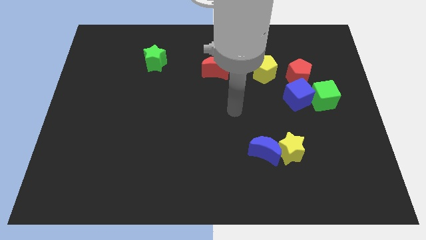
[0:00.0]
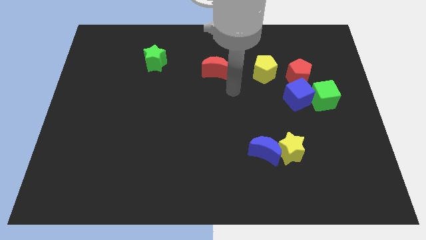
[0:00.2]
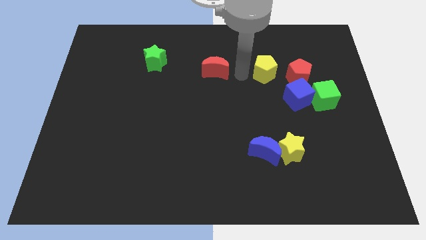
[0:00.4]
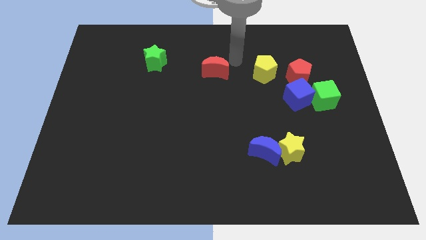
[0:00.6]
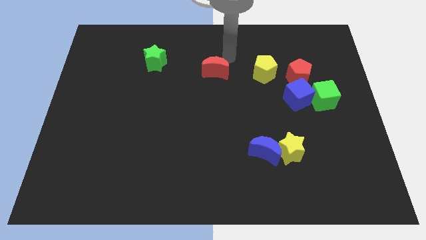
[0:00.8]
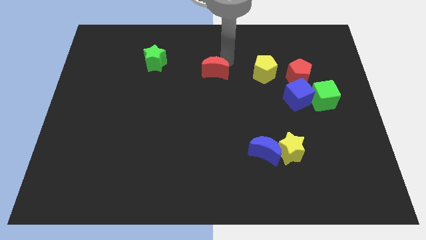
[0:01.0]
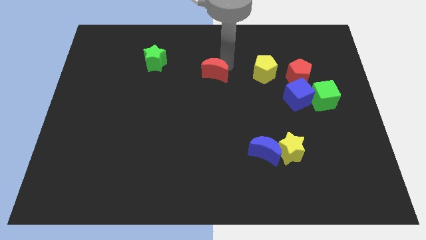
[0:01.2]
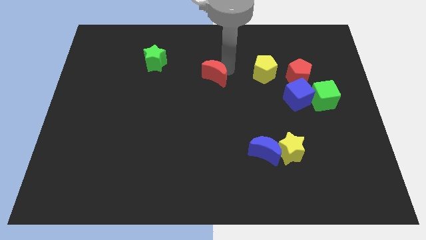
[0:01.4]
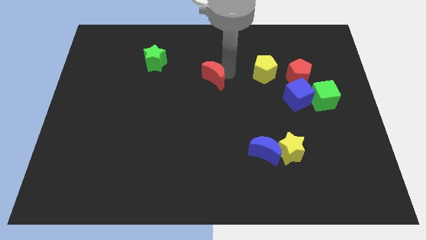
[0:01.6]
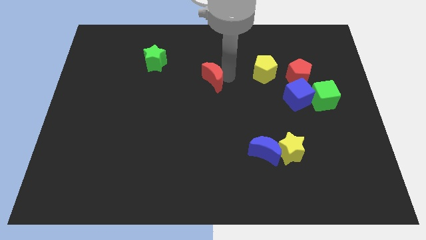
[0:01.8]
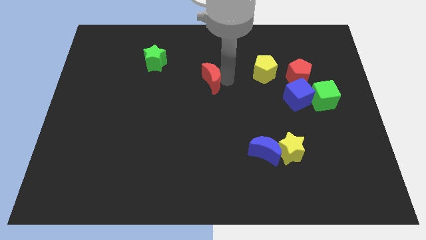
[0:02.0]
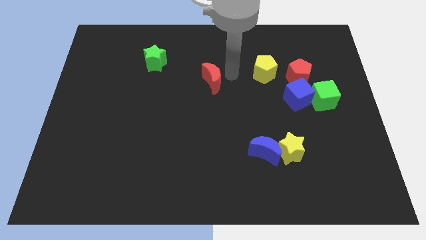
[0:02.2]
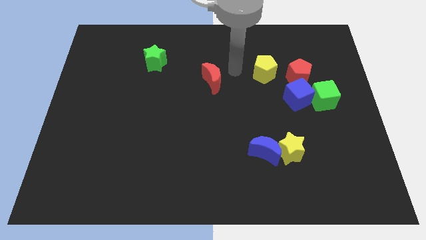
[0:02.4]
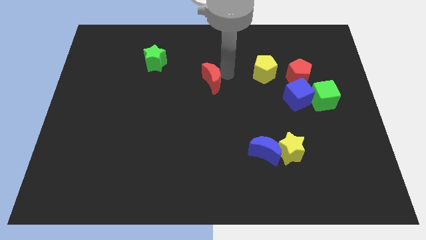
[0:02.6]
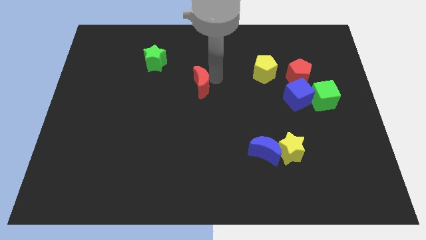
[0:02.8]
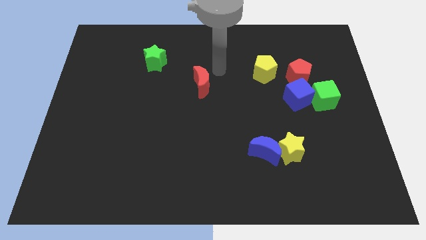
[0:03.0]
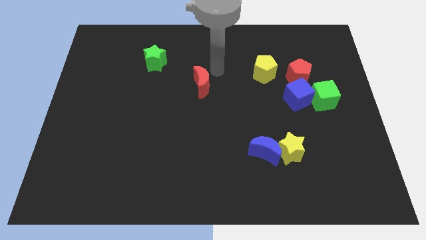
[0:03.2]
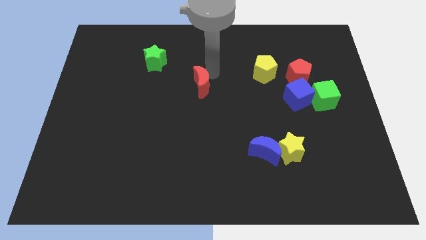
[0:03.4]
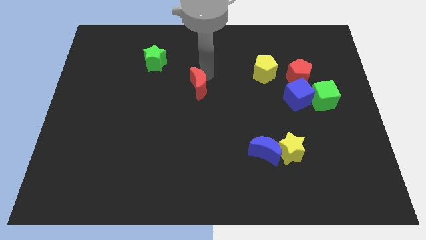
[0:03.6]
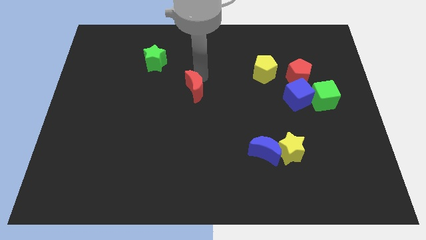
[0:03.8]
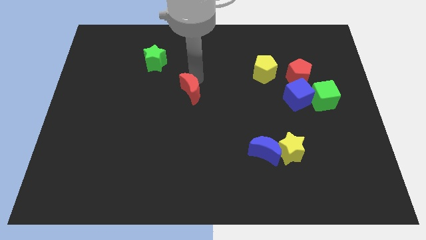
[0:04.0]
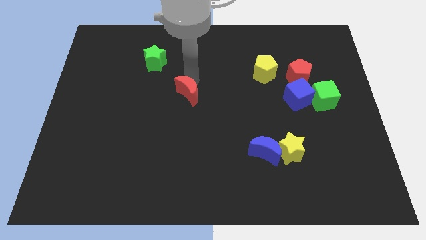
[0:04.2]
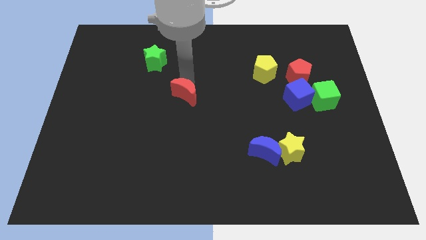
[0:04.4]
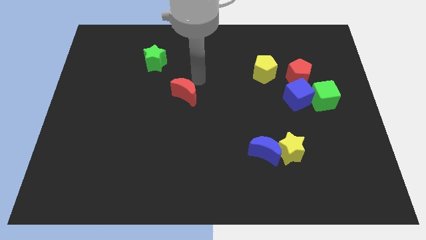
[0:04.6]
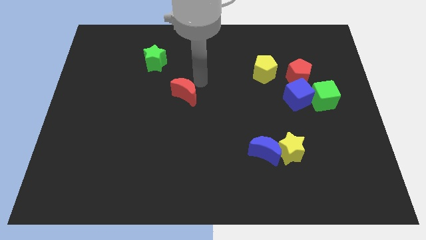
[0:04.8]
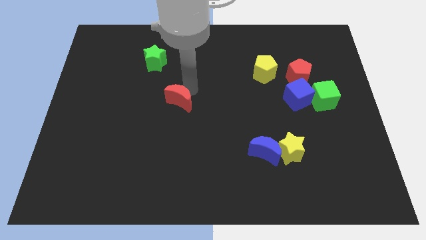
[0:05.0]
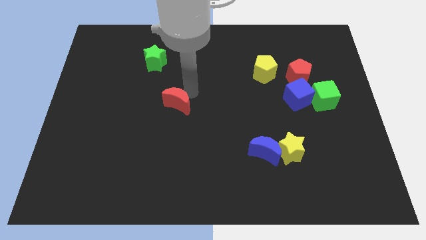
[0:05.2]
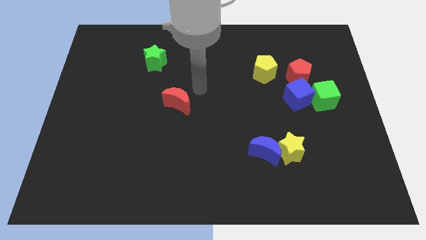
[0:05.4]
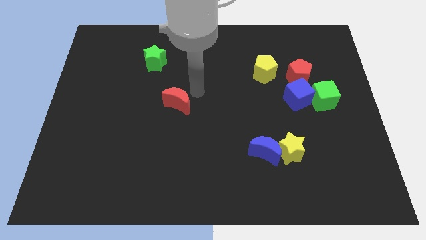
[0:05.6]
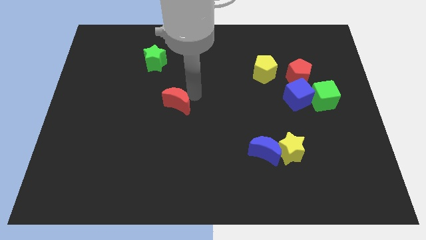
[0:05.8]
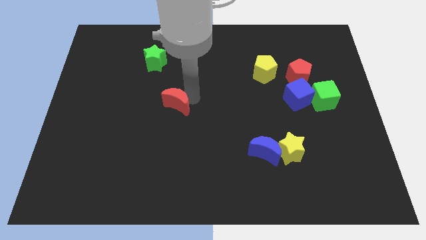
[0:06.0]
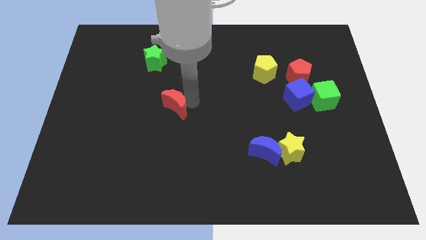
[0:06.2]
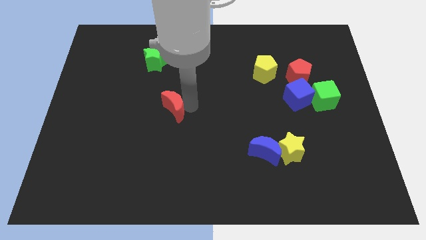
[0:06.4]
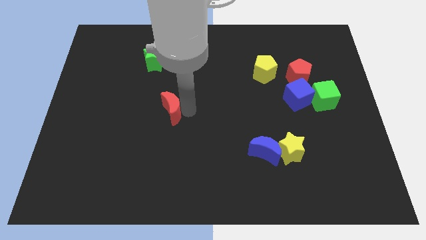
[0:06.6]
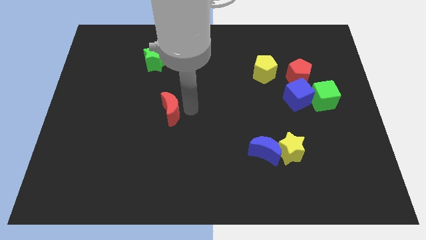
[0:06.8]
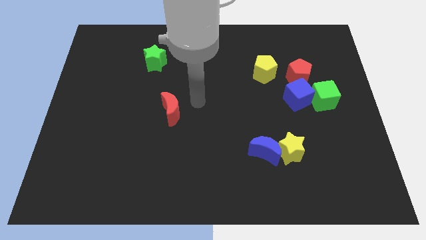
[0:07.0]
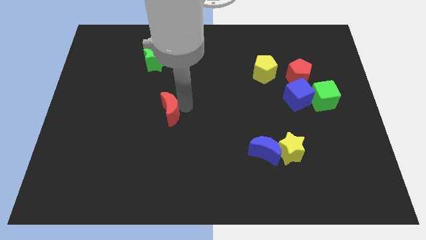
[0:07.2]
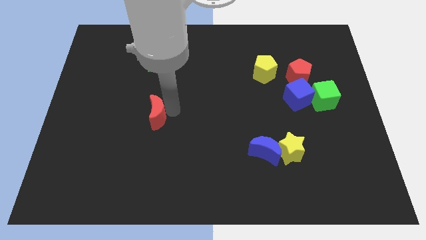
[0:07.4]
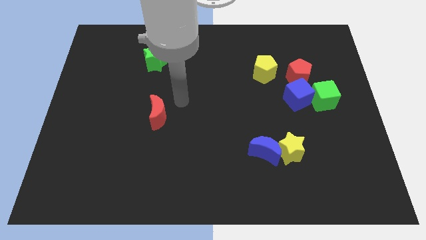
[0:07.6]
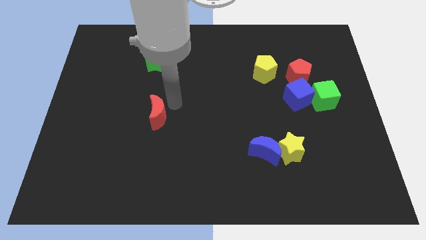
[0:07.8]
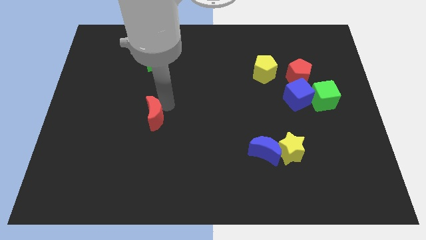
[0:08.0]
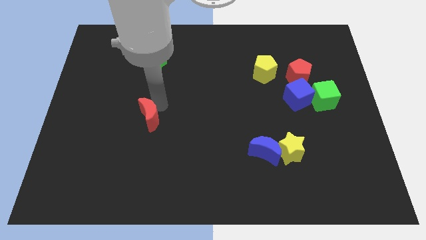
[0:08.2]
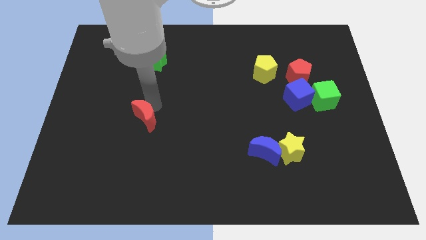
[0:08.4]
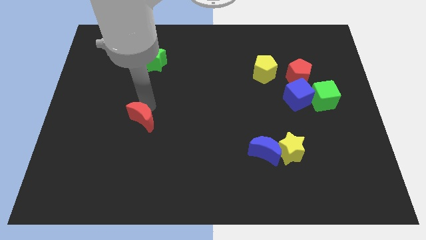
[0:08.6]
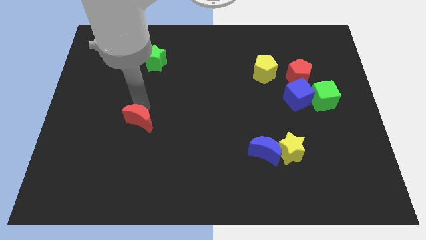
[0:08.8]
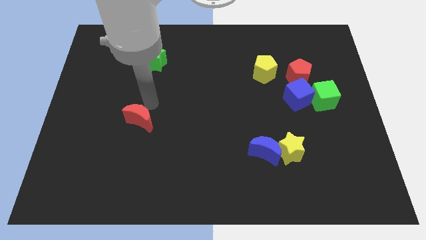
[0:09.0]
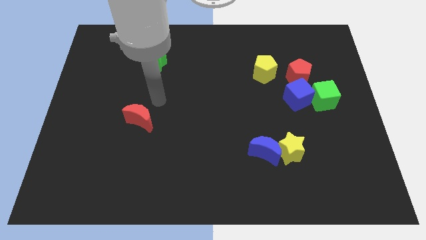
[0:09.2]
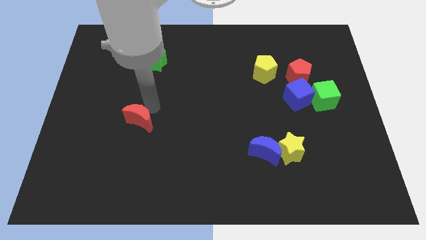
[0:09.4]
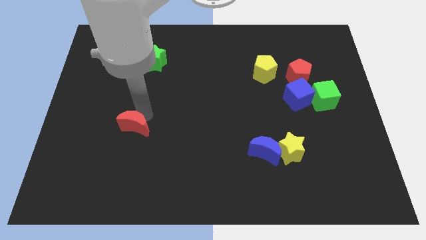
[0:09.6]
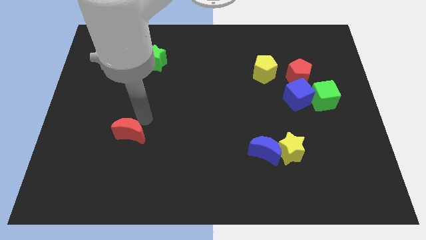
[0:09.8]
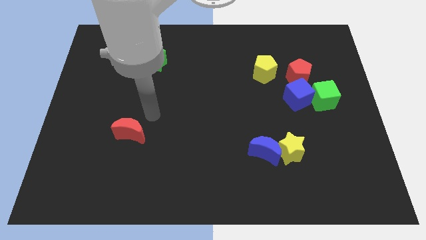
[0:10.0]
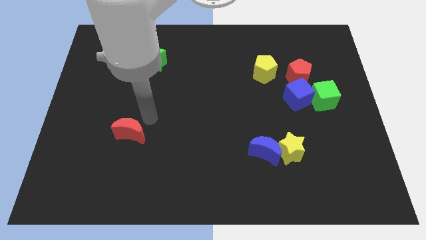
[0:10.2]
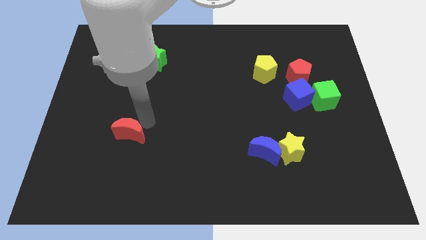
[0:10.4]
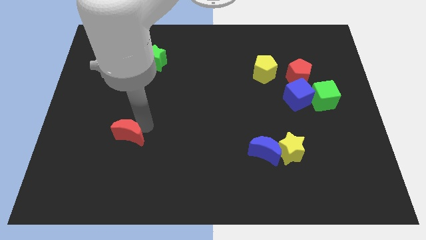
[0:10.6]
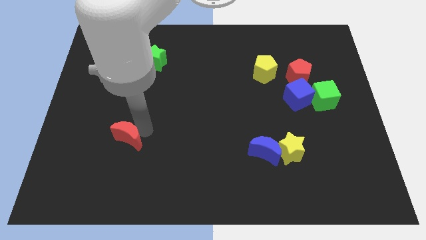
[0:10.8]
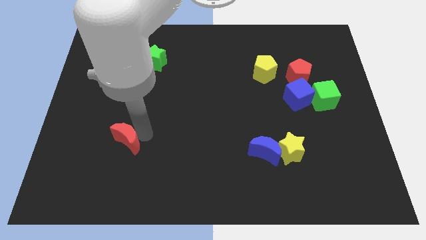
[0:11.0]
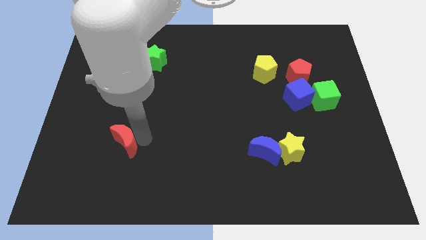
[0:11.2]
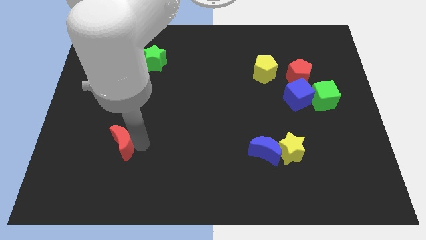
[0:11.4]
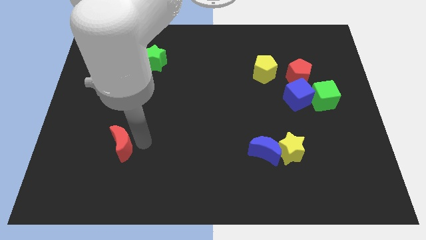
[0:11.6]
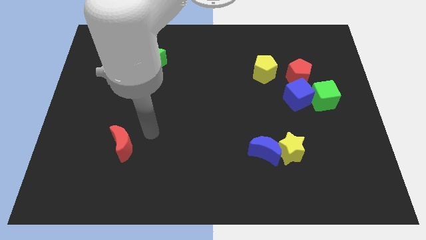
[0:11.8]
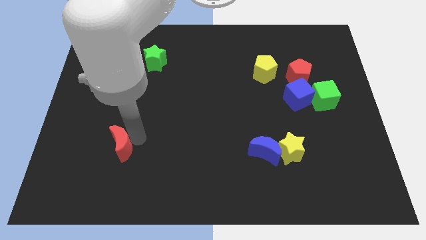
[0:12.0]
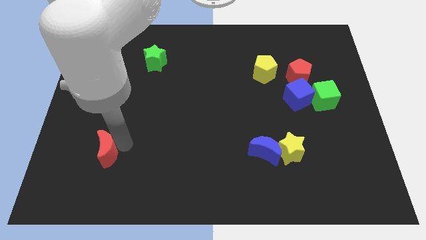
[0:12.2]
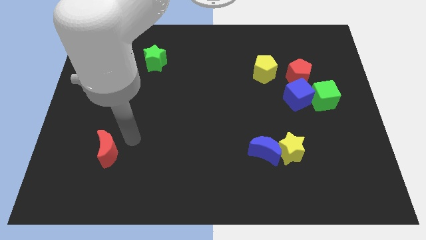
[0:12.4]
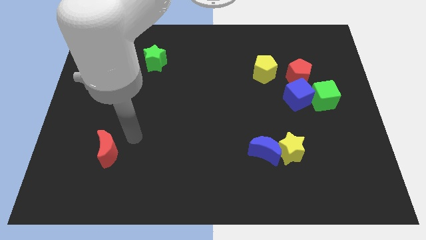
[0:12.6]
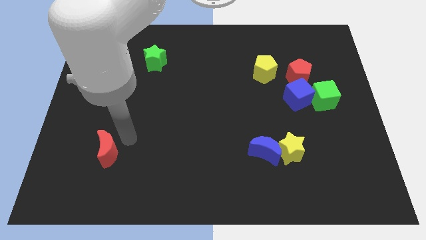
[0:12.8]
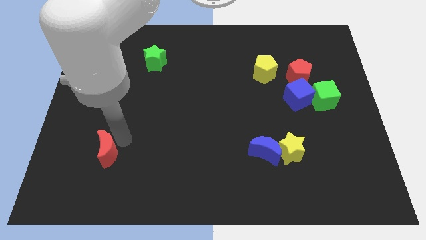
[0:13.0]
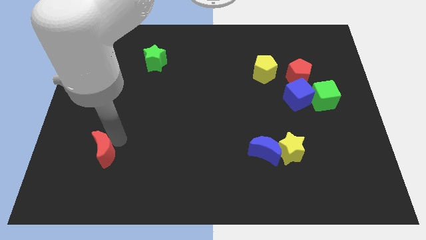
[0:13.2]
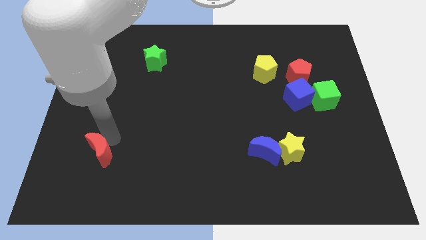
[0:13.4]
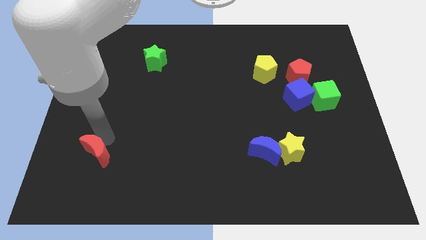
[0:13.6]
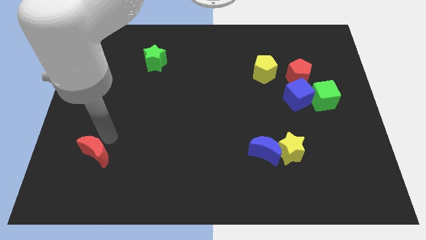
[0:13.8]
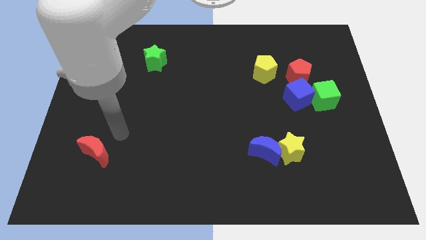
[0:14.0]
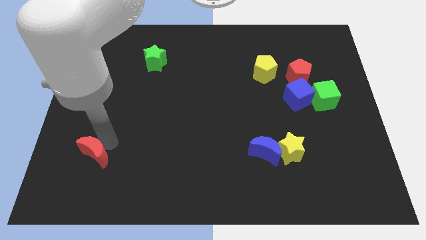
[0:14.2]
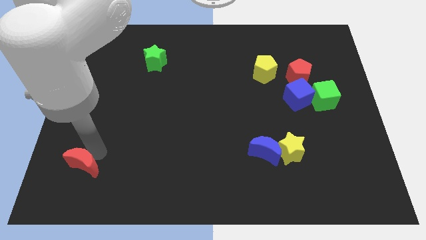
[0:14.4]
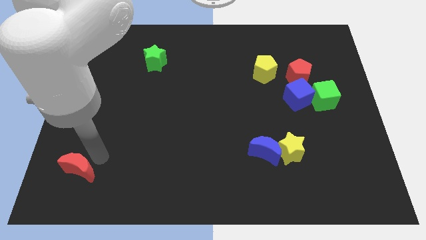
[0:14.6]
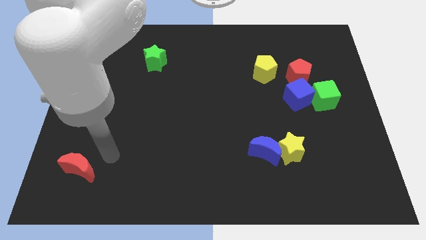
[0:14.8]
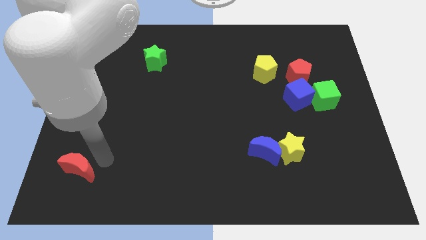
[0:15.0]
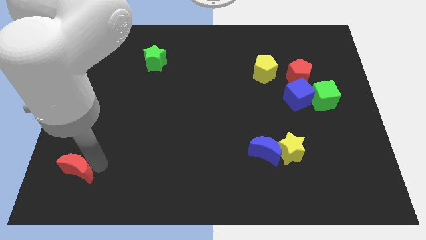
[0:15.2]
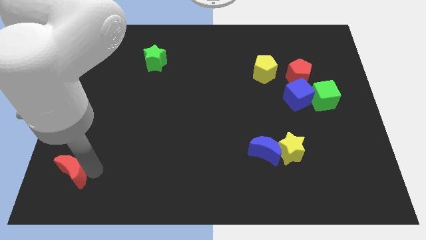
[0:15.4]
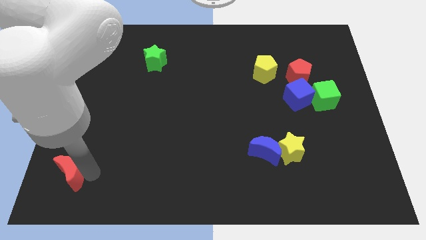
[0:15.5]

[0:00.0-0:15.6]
slide the red moon to the bottom left of the board
